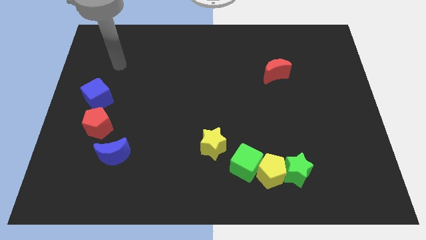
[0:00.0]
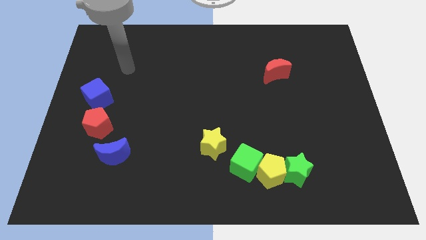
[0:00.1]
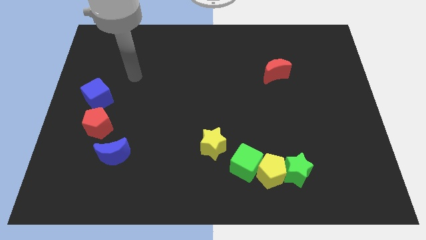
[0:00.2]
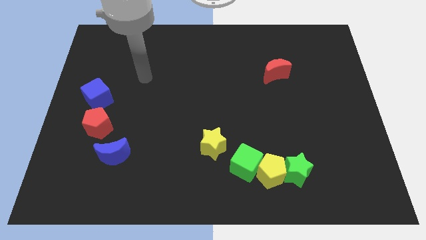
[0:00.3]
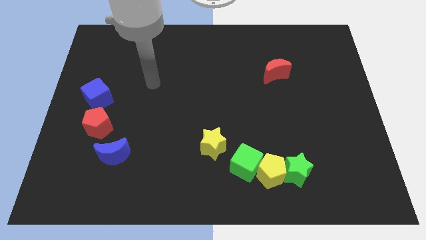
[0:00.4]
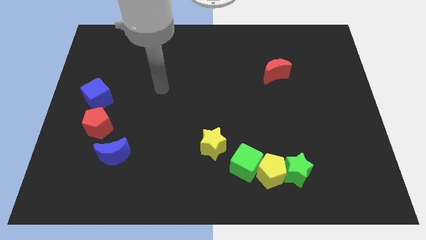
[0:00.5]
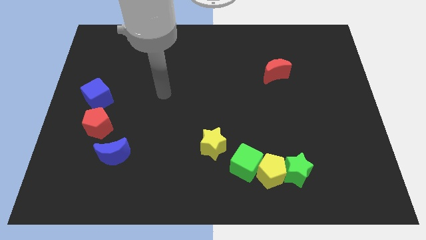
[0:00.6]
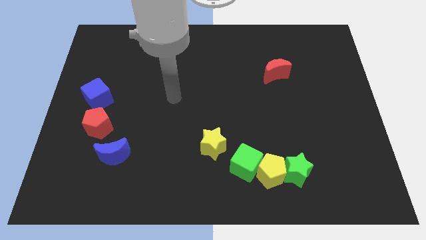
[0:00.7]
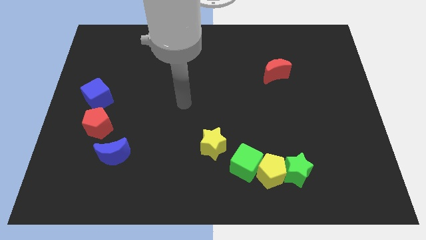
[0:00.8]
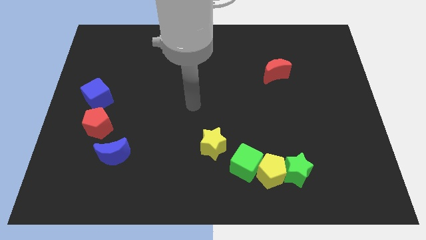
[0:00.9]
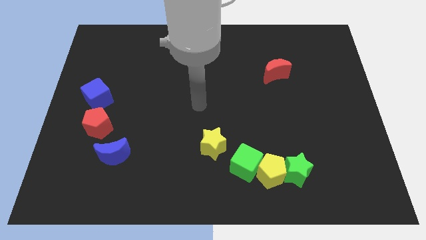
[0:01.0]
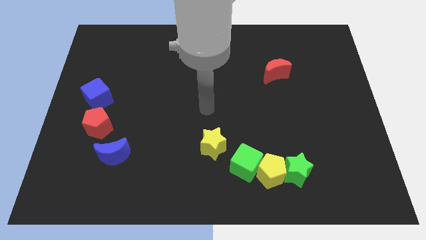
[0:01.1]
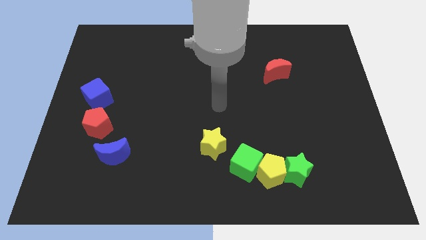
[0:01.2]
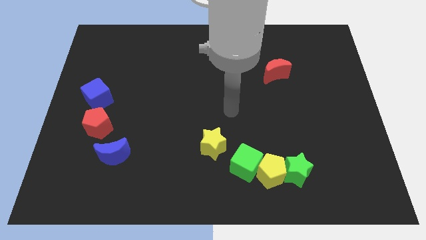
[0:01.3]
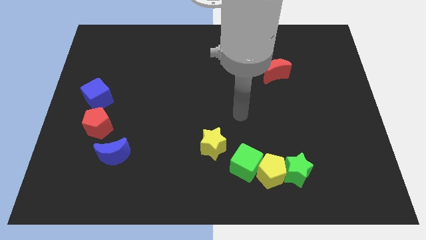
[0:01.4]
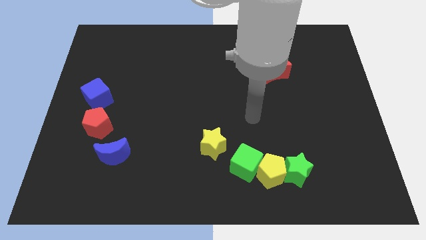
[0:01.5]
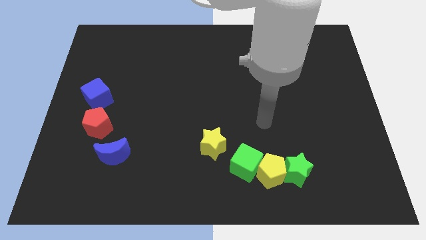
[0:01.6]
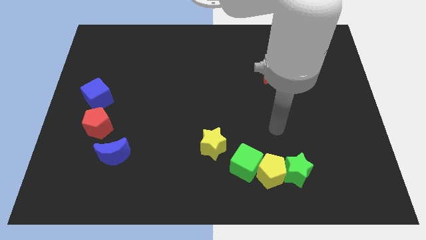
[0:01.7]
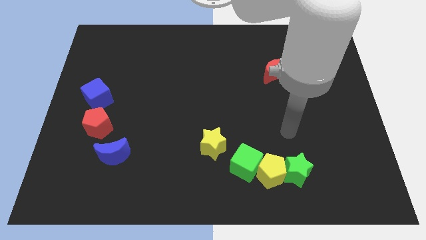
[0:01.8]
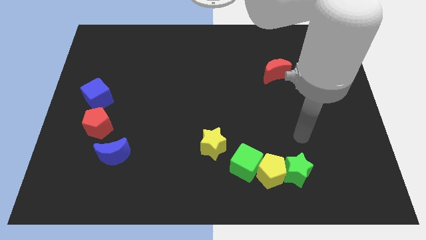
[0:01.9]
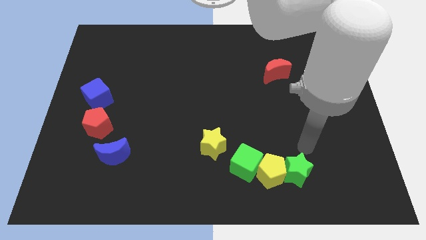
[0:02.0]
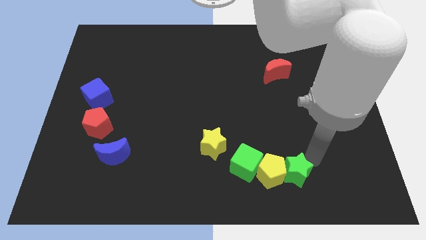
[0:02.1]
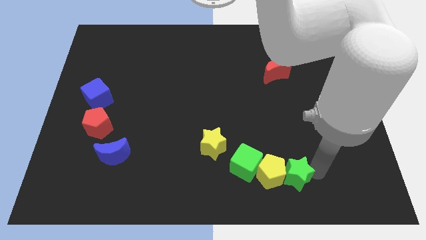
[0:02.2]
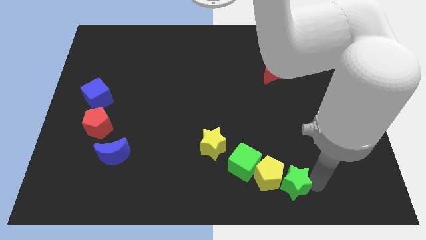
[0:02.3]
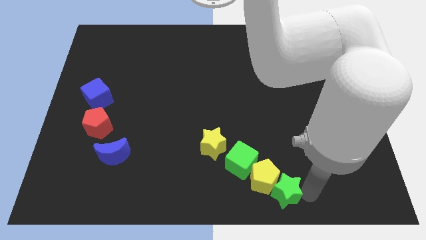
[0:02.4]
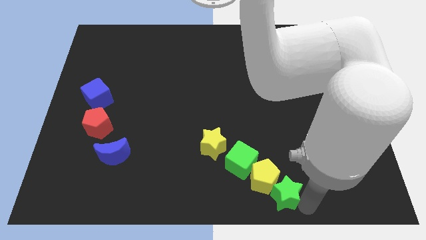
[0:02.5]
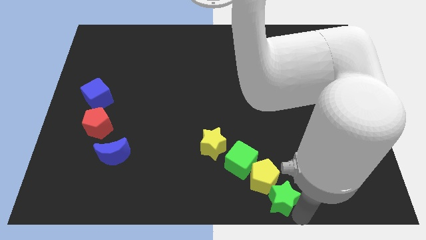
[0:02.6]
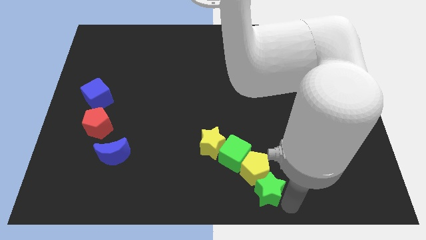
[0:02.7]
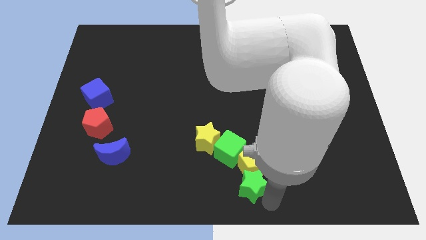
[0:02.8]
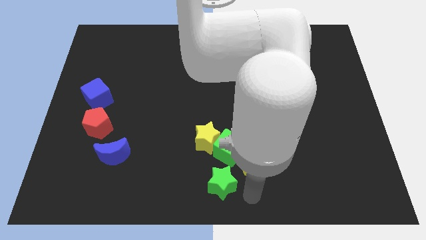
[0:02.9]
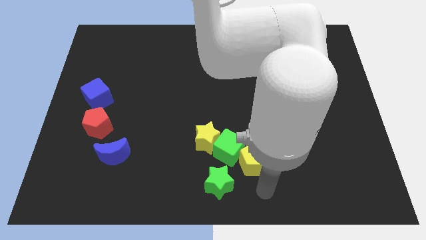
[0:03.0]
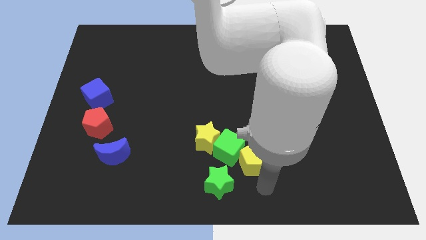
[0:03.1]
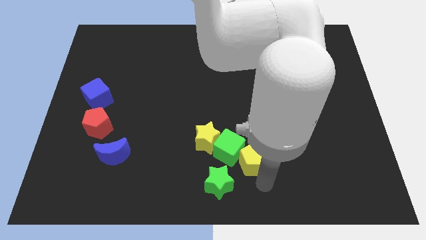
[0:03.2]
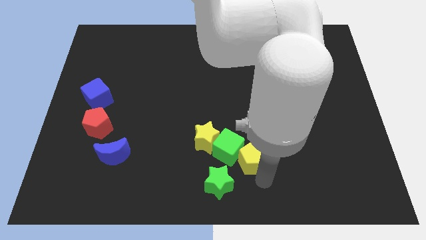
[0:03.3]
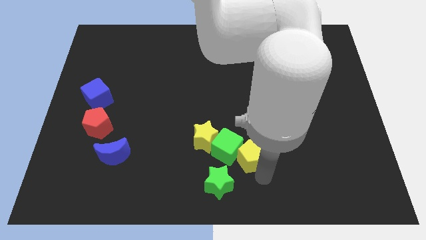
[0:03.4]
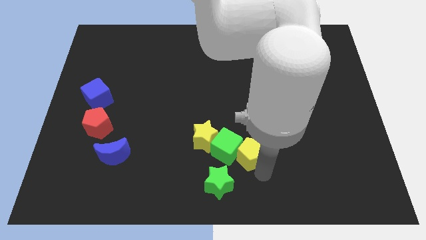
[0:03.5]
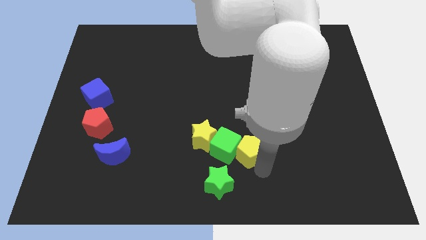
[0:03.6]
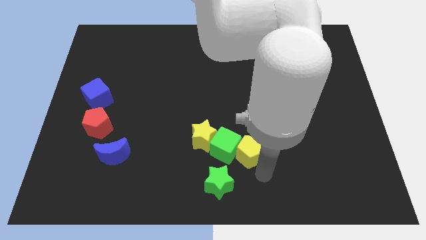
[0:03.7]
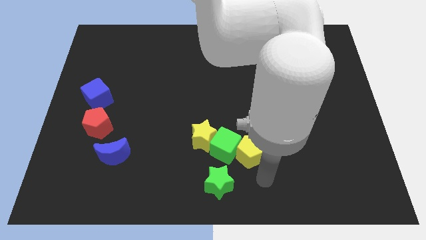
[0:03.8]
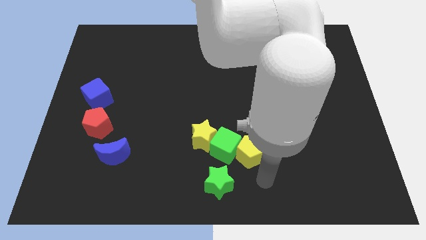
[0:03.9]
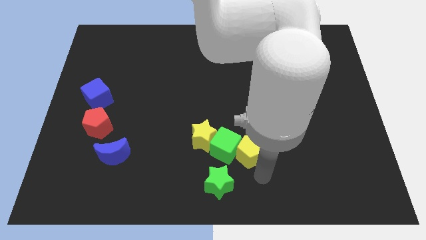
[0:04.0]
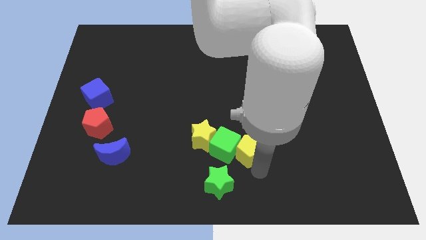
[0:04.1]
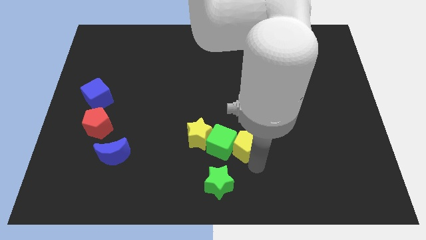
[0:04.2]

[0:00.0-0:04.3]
move the yellow pentagon diagonally up and left a little

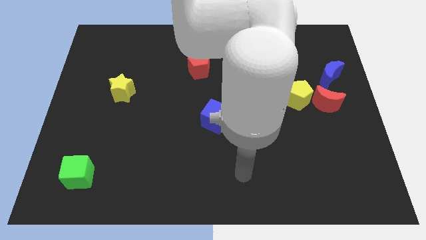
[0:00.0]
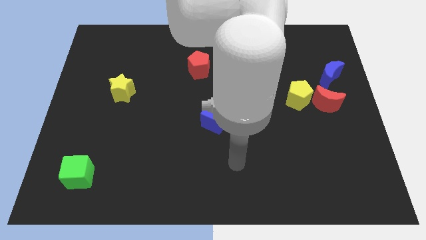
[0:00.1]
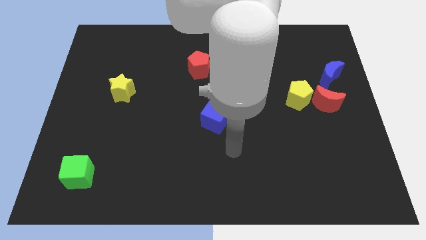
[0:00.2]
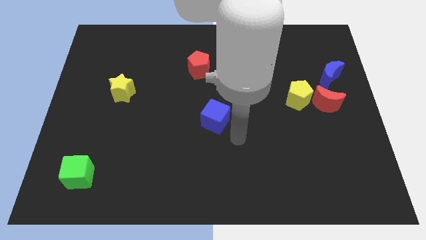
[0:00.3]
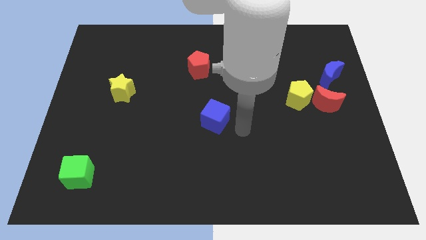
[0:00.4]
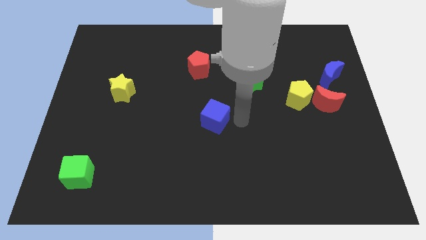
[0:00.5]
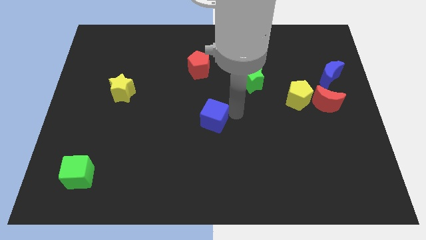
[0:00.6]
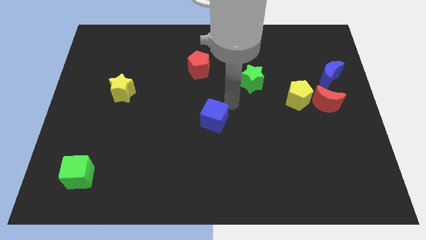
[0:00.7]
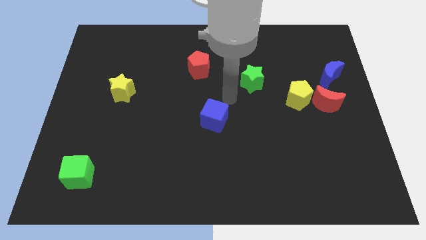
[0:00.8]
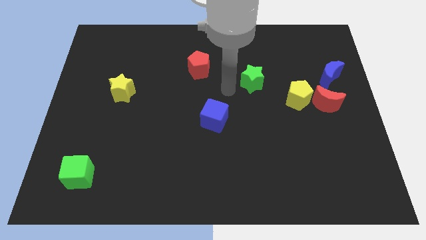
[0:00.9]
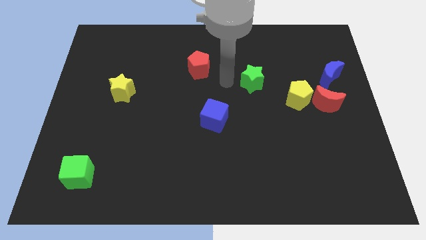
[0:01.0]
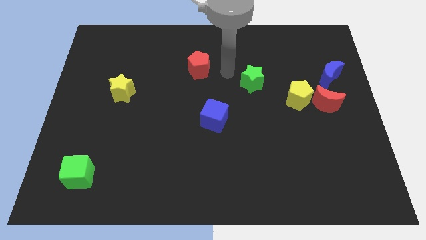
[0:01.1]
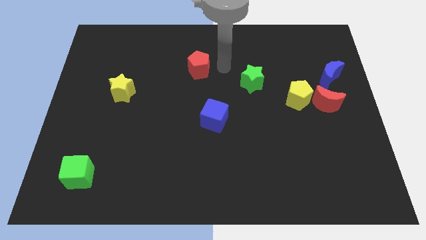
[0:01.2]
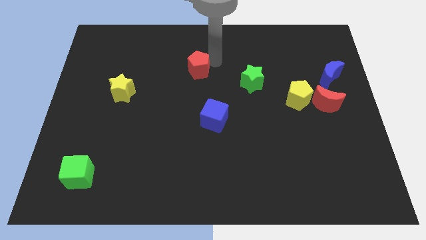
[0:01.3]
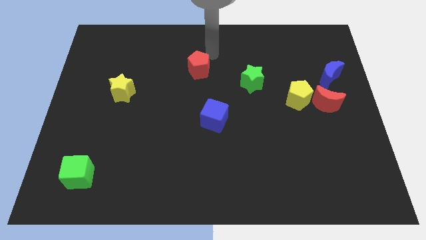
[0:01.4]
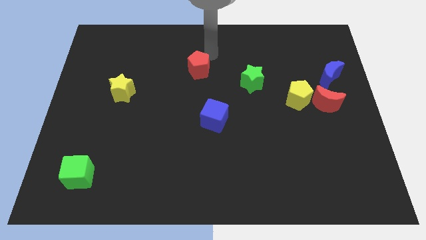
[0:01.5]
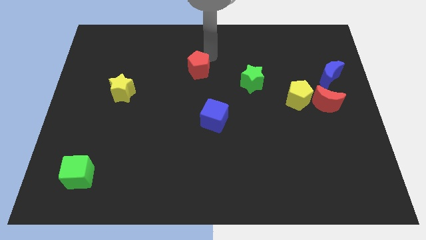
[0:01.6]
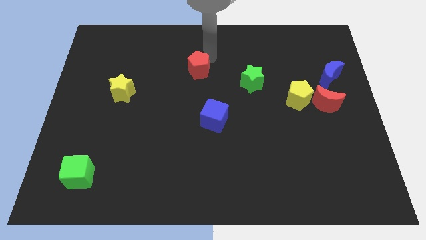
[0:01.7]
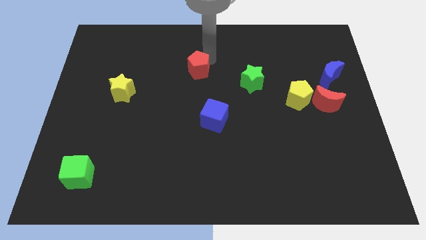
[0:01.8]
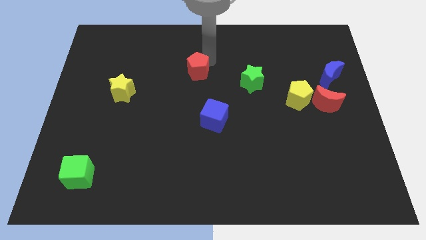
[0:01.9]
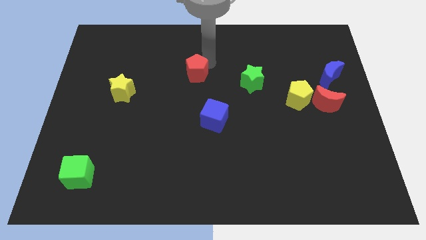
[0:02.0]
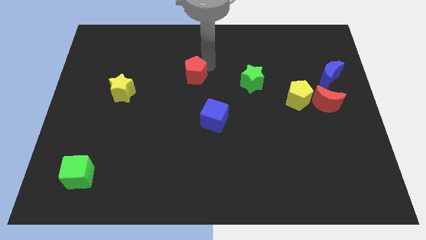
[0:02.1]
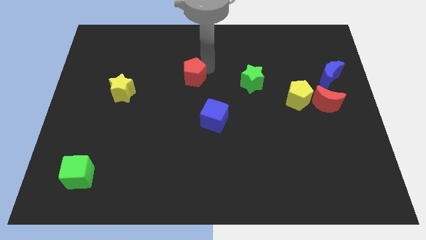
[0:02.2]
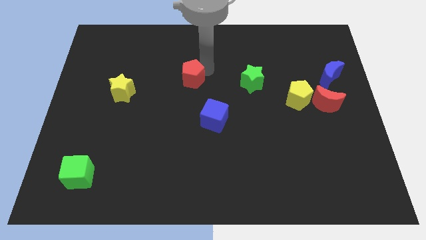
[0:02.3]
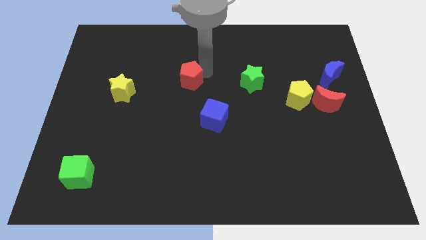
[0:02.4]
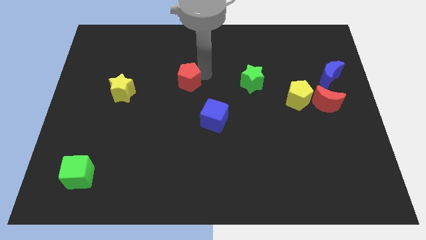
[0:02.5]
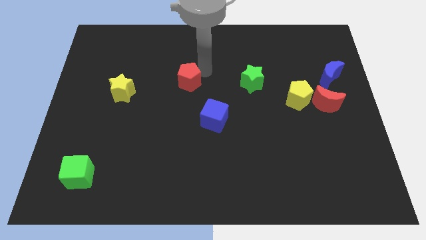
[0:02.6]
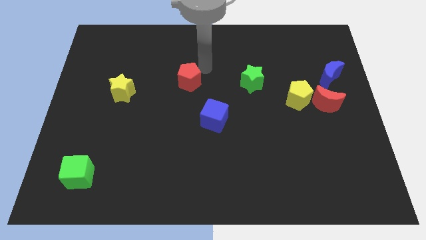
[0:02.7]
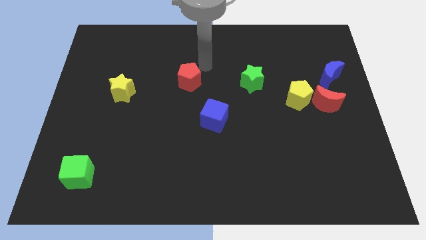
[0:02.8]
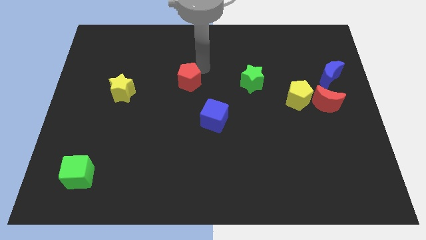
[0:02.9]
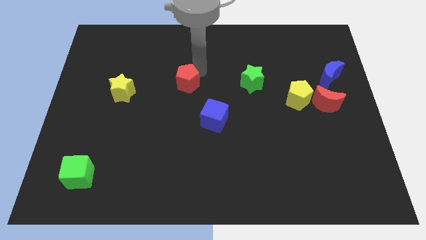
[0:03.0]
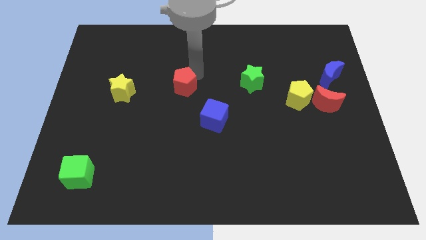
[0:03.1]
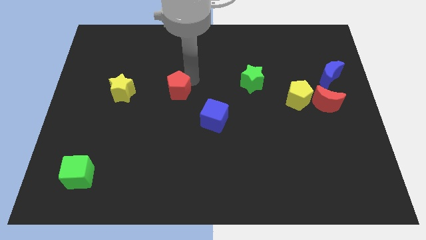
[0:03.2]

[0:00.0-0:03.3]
move the red pentagon down and to the left diagonally somewhat

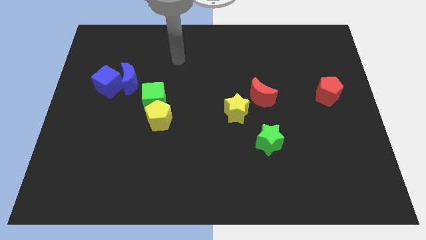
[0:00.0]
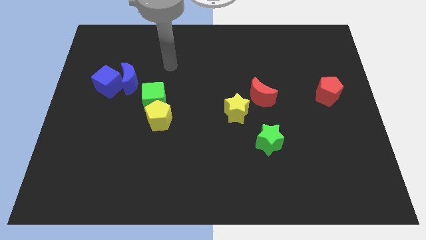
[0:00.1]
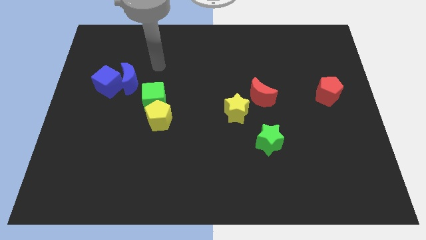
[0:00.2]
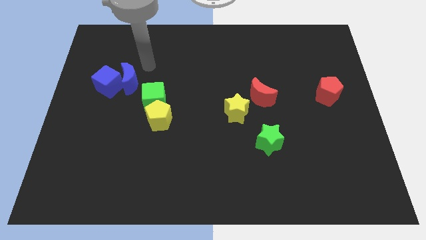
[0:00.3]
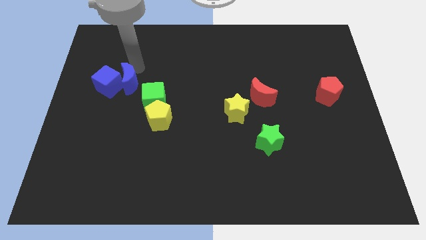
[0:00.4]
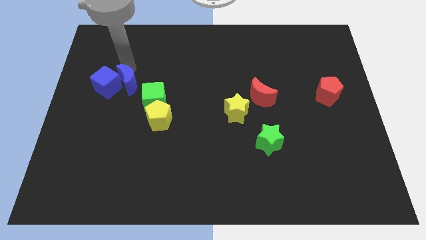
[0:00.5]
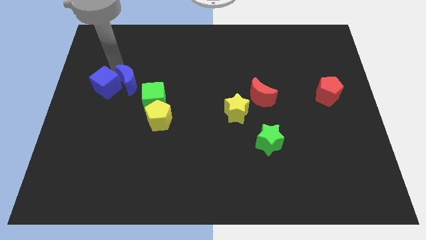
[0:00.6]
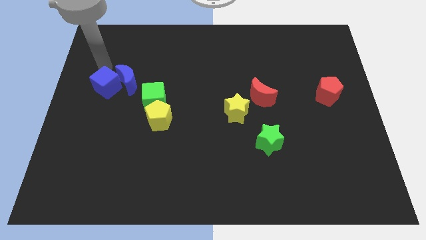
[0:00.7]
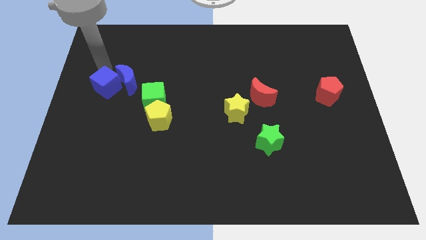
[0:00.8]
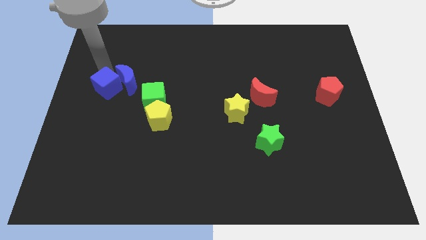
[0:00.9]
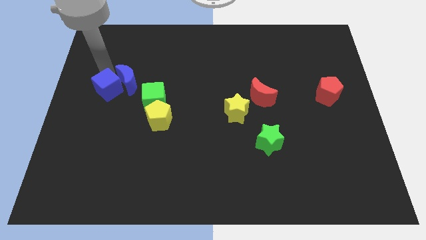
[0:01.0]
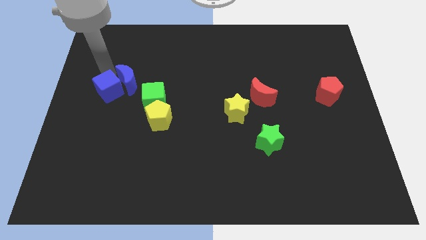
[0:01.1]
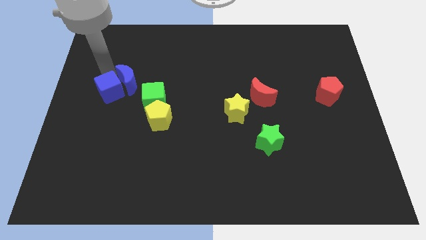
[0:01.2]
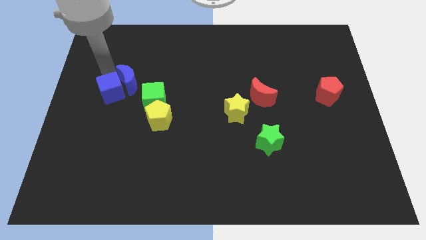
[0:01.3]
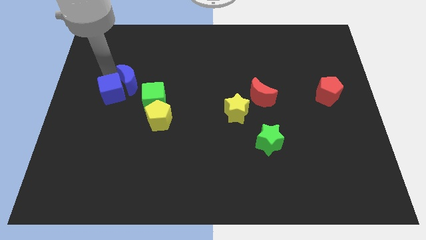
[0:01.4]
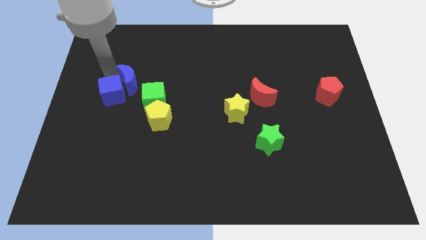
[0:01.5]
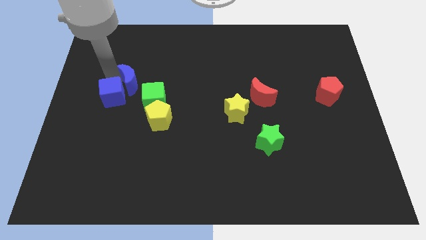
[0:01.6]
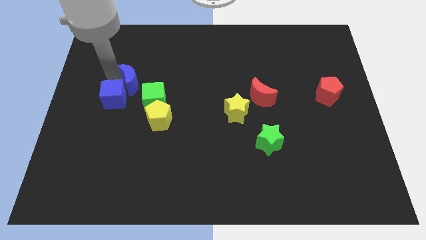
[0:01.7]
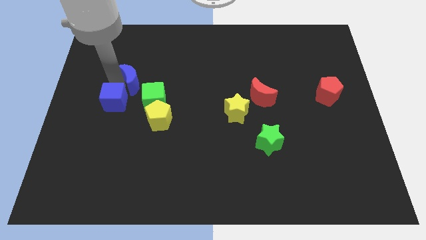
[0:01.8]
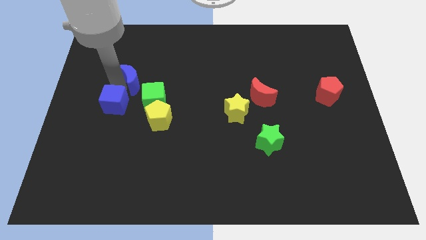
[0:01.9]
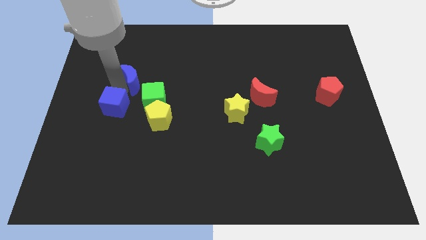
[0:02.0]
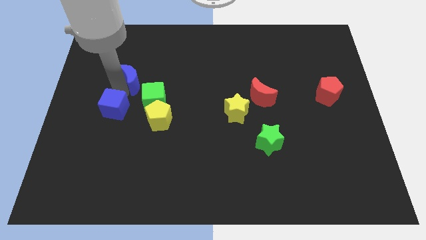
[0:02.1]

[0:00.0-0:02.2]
move the blue cube downwards somewhat
